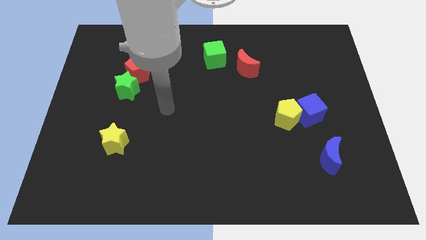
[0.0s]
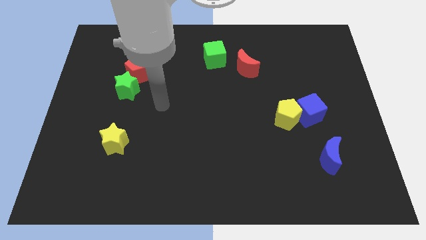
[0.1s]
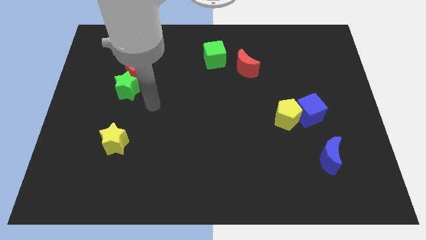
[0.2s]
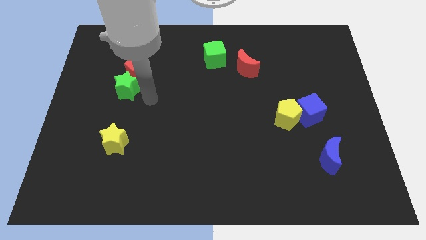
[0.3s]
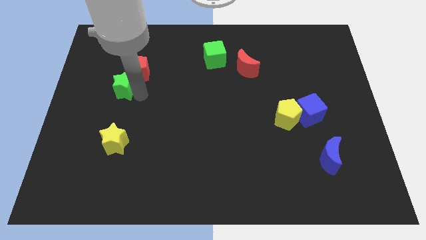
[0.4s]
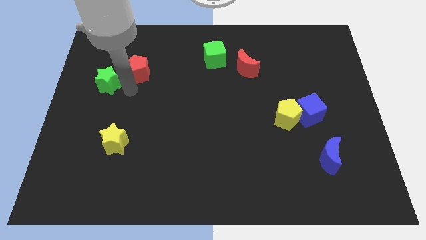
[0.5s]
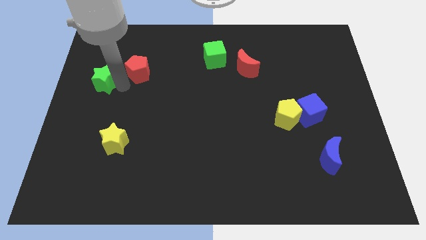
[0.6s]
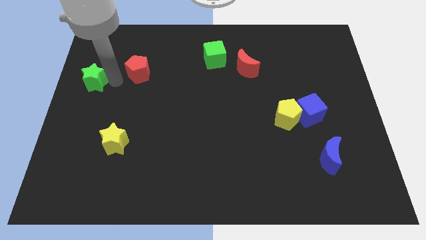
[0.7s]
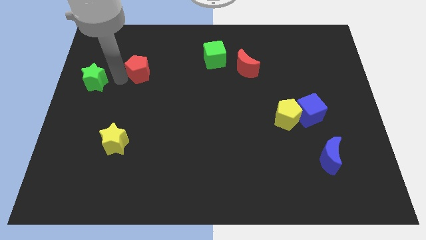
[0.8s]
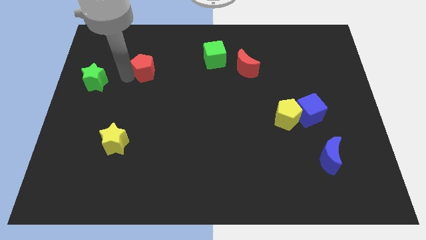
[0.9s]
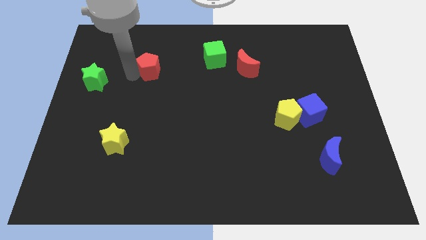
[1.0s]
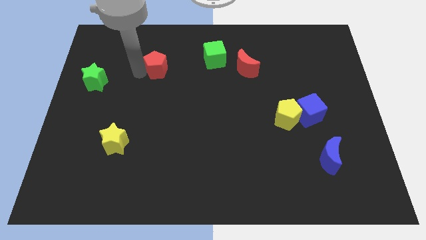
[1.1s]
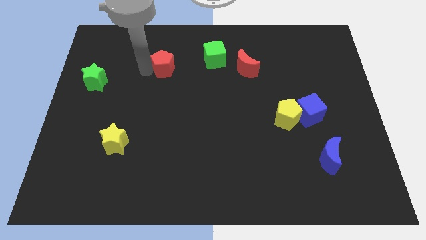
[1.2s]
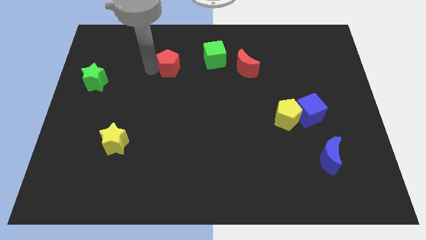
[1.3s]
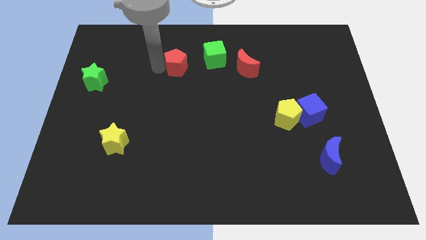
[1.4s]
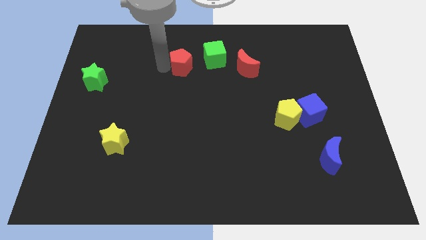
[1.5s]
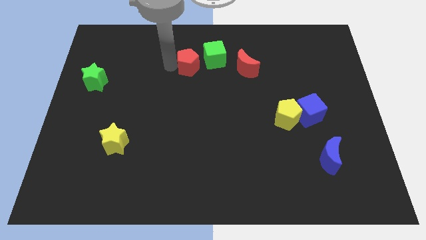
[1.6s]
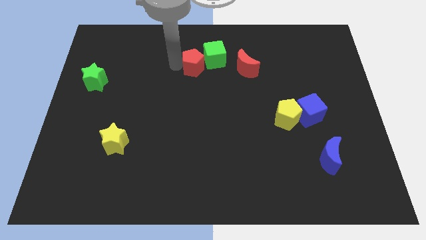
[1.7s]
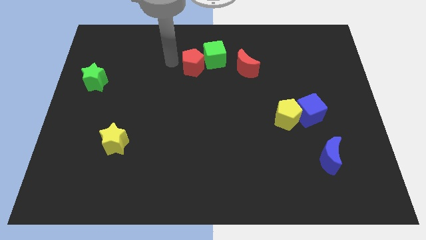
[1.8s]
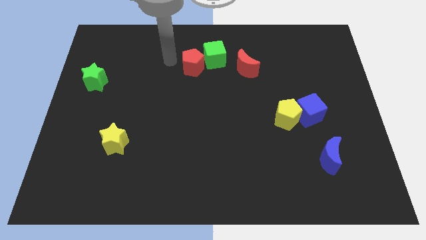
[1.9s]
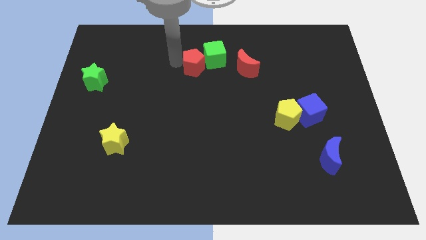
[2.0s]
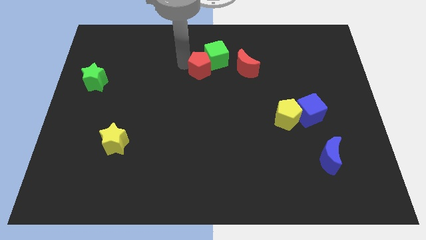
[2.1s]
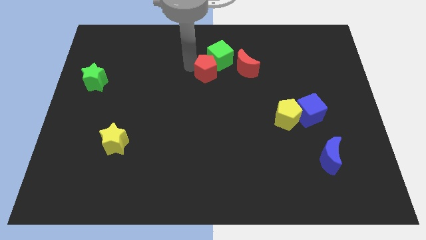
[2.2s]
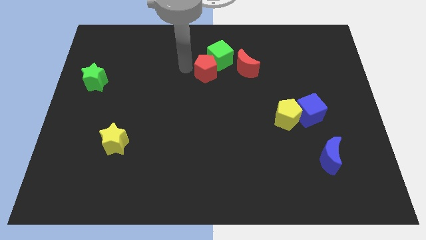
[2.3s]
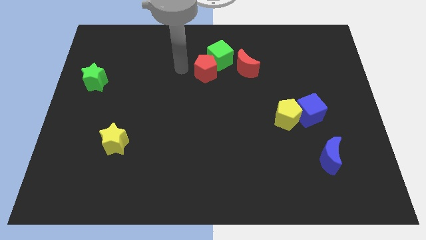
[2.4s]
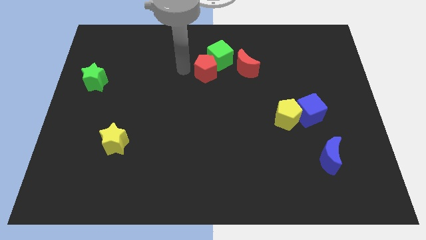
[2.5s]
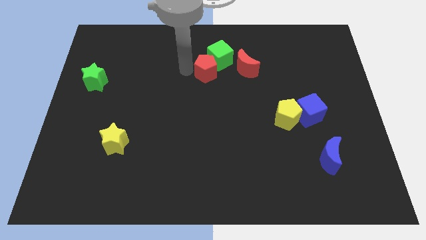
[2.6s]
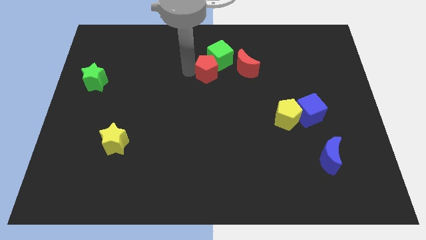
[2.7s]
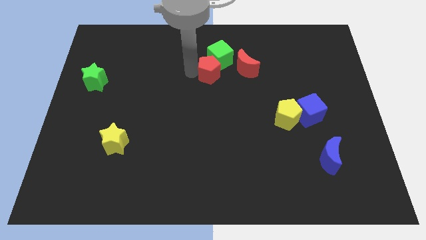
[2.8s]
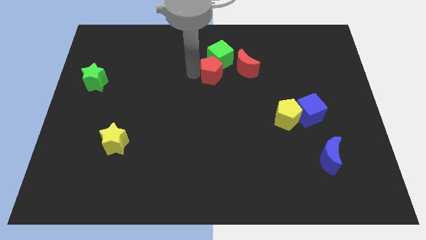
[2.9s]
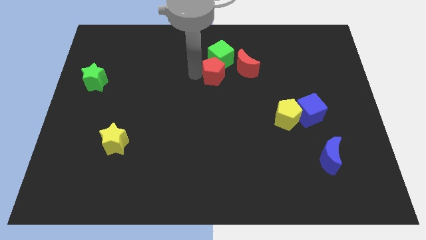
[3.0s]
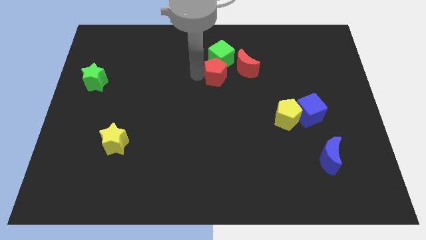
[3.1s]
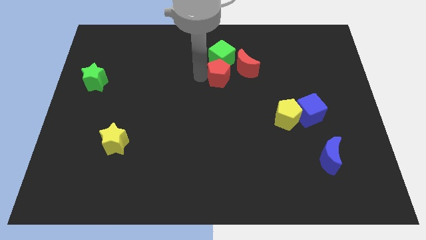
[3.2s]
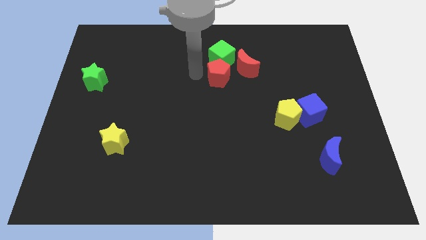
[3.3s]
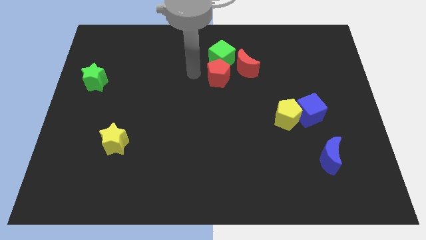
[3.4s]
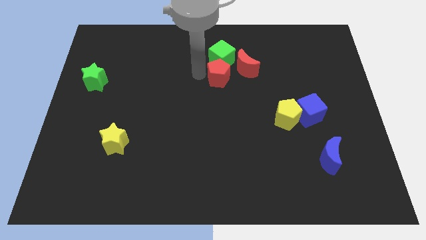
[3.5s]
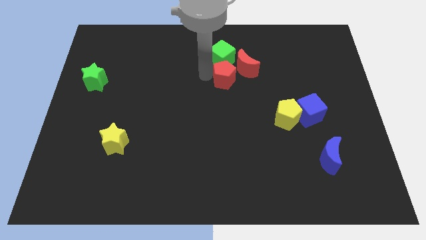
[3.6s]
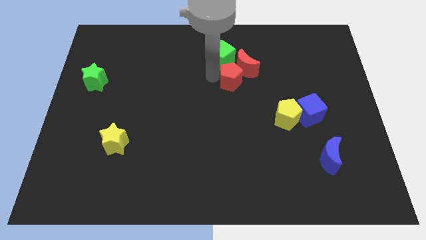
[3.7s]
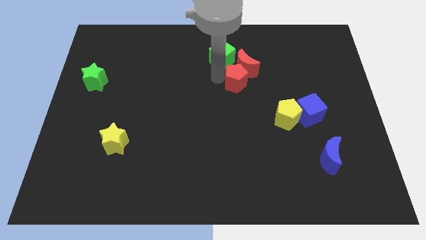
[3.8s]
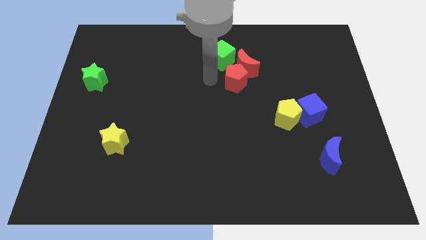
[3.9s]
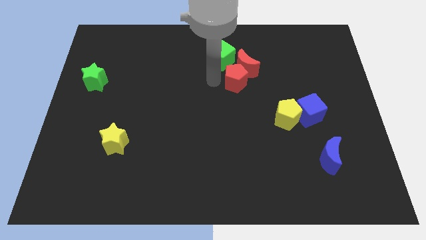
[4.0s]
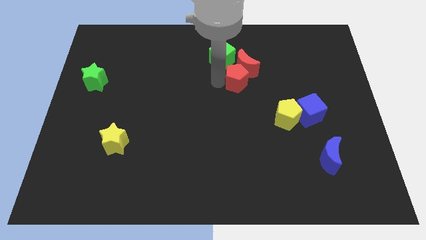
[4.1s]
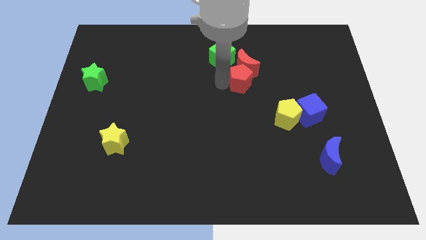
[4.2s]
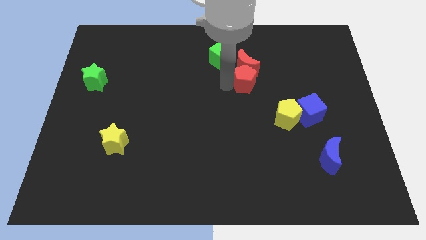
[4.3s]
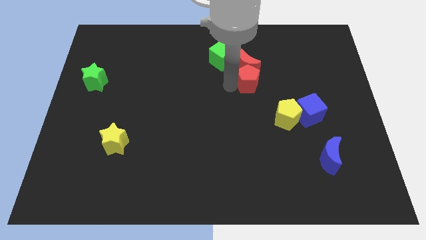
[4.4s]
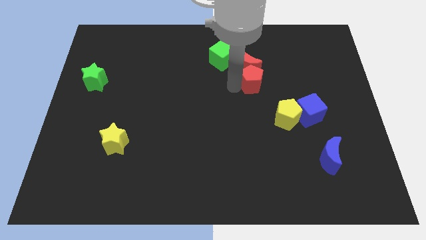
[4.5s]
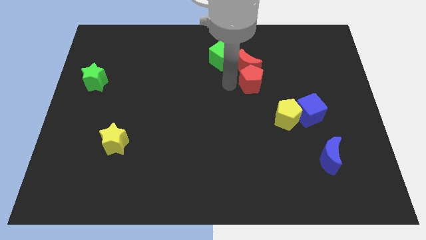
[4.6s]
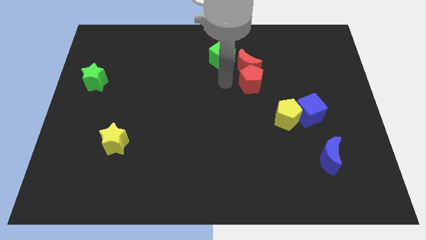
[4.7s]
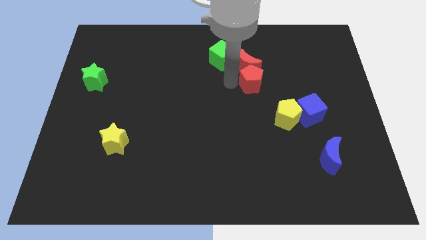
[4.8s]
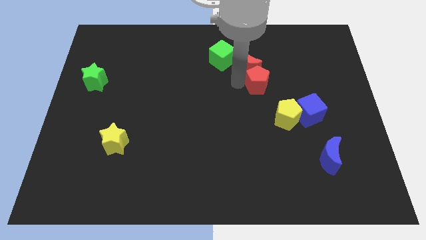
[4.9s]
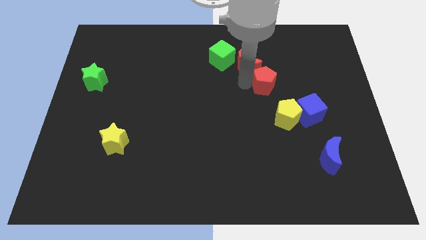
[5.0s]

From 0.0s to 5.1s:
move the red pentagon to the top side of the yellow pentagon

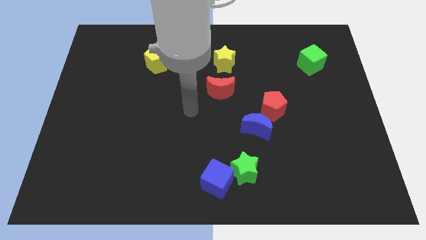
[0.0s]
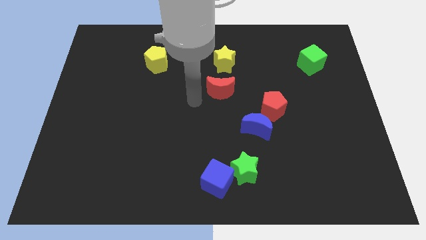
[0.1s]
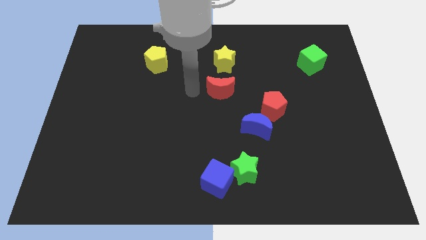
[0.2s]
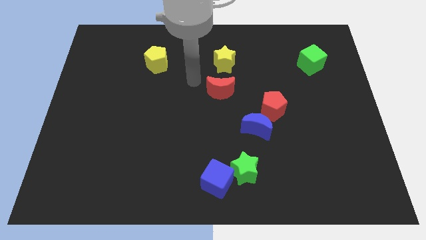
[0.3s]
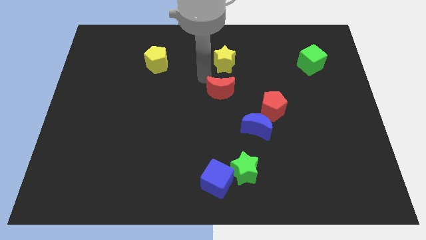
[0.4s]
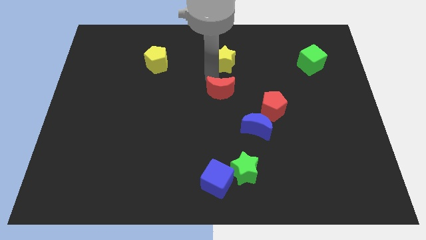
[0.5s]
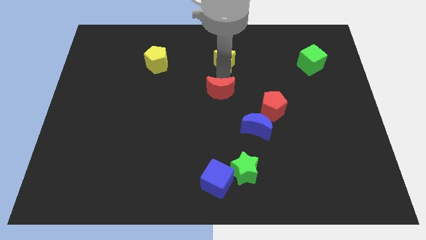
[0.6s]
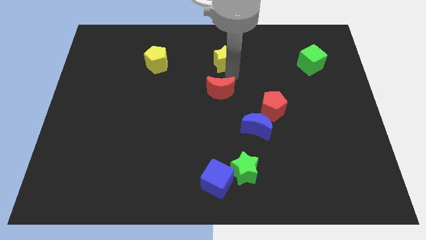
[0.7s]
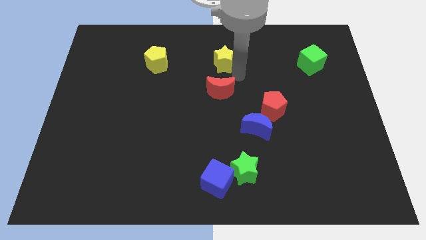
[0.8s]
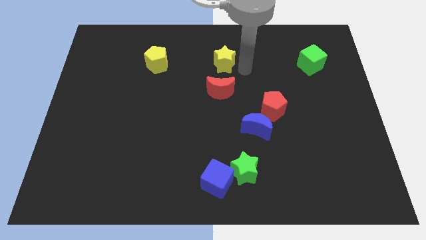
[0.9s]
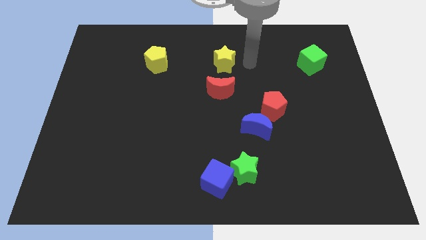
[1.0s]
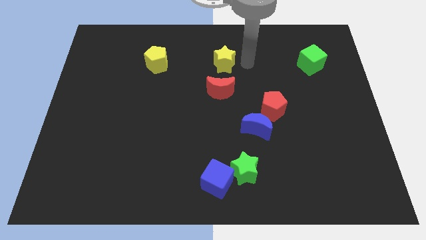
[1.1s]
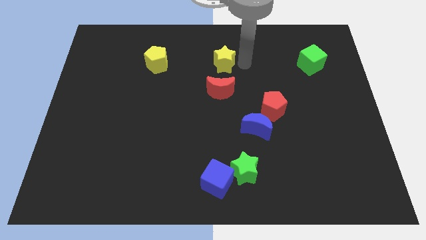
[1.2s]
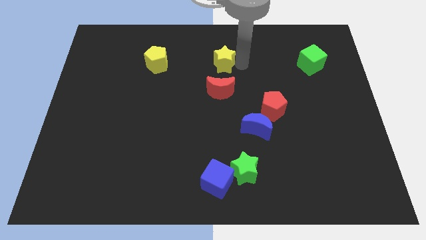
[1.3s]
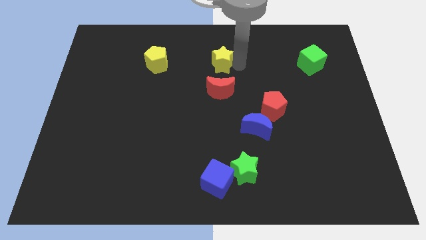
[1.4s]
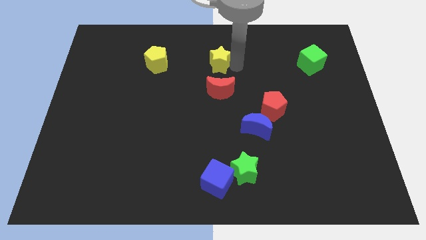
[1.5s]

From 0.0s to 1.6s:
push the yellow star to the right of the yellow pentagon

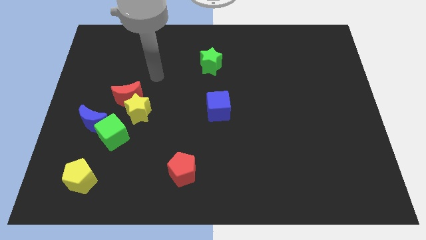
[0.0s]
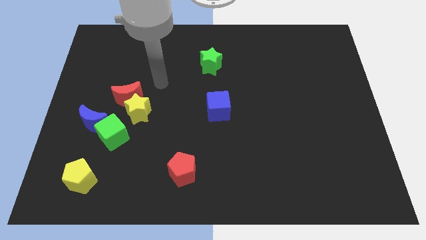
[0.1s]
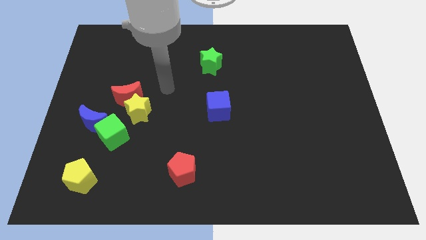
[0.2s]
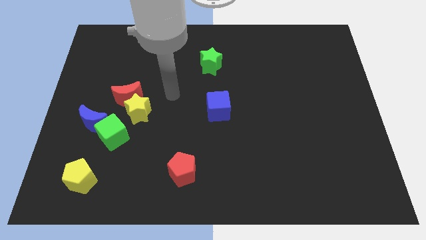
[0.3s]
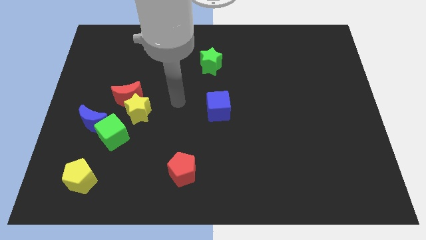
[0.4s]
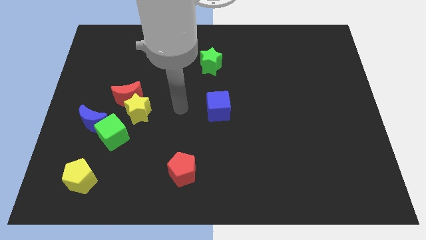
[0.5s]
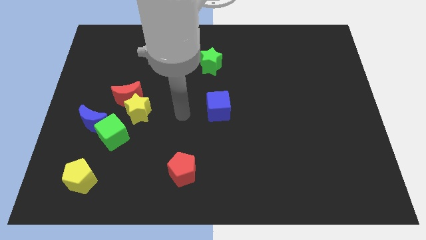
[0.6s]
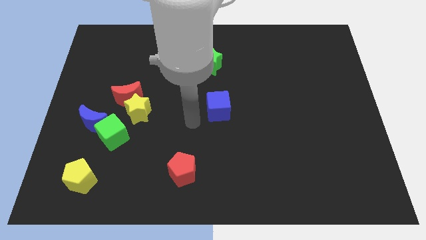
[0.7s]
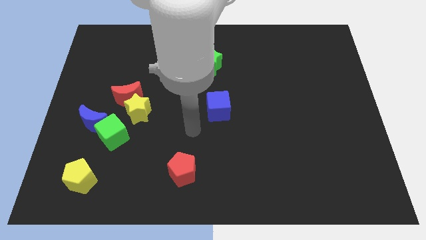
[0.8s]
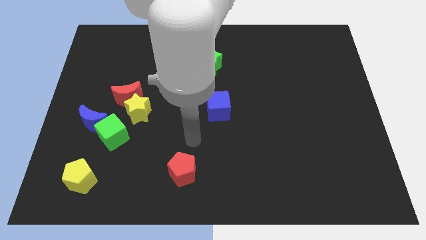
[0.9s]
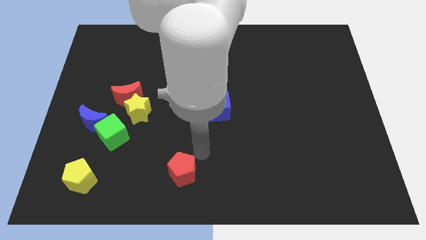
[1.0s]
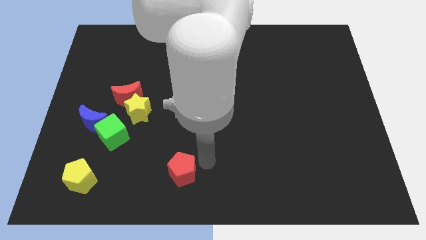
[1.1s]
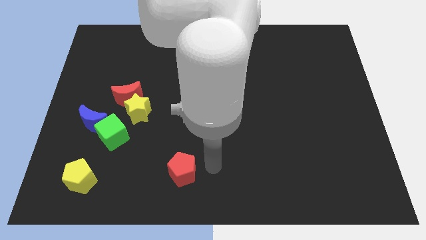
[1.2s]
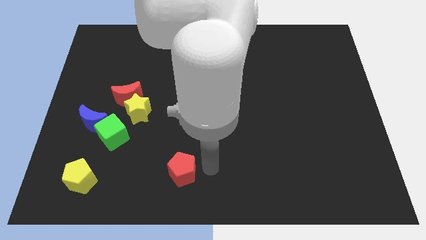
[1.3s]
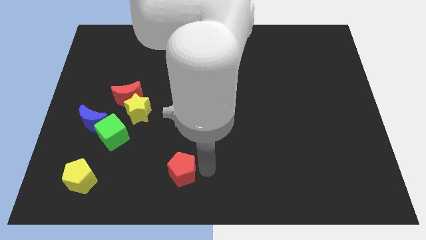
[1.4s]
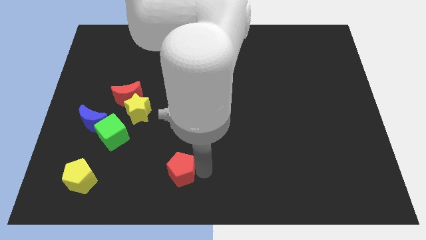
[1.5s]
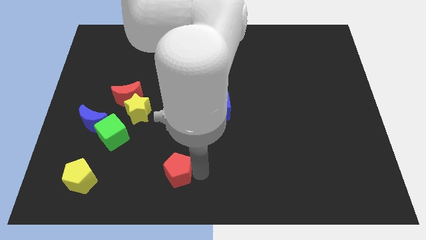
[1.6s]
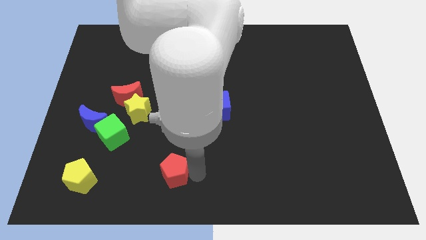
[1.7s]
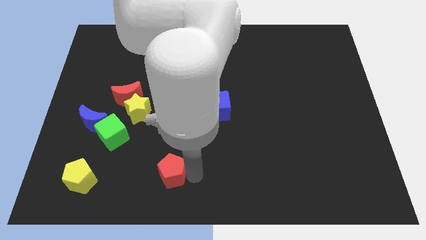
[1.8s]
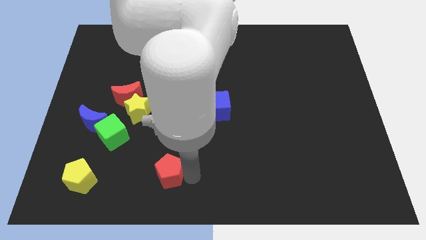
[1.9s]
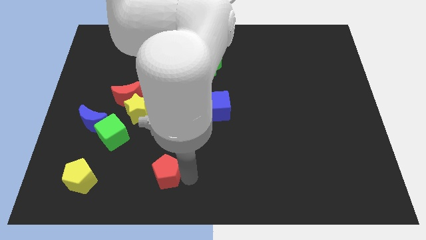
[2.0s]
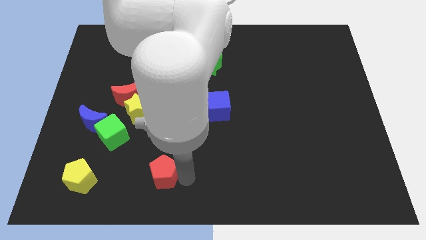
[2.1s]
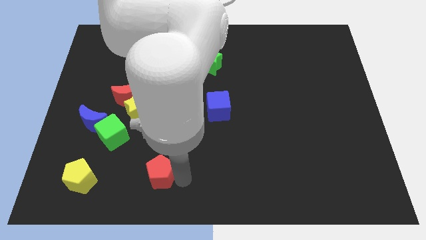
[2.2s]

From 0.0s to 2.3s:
push the red pentagon just right of the yellow pentagon
